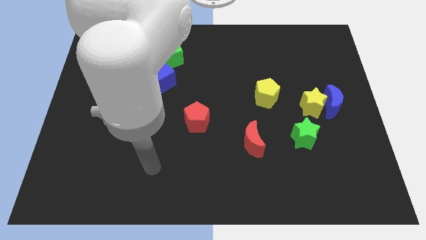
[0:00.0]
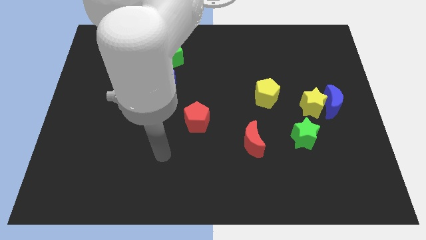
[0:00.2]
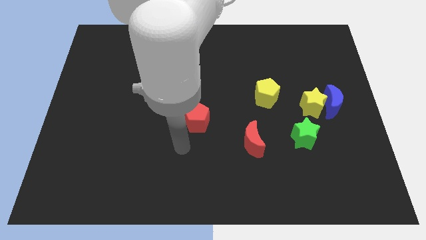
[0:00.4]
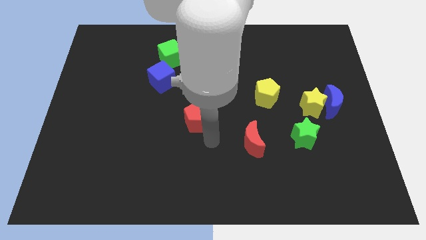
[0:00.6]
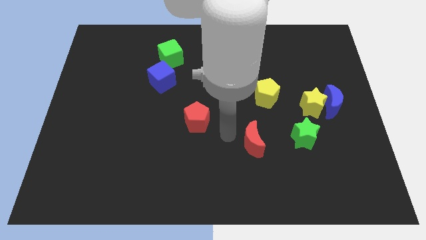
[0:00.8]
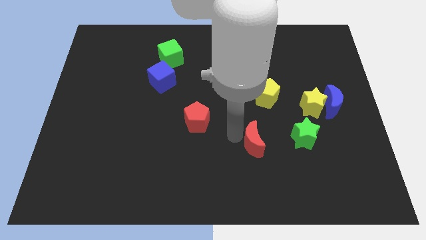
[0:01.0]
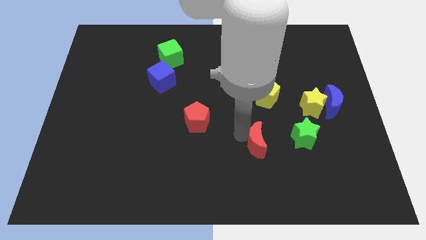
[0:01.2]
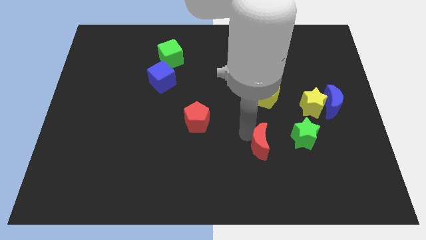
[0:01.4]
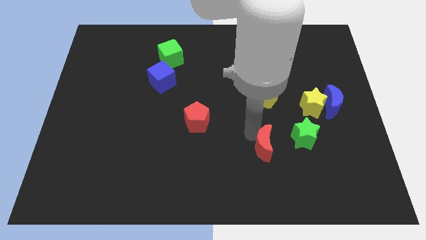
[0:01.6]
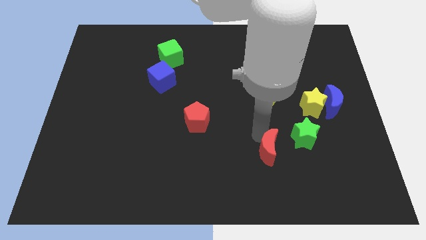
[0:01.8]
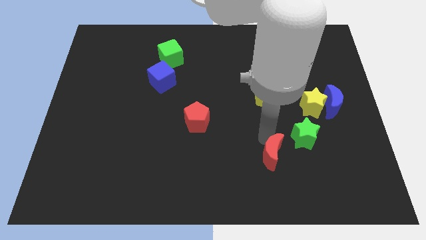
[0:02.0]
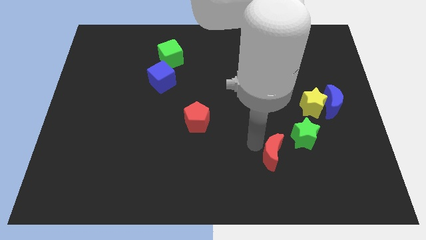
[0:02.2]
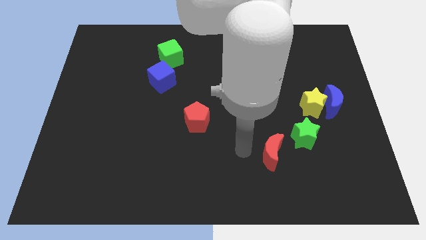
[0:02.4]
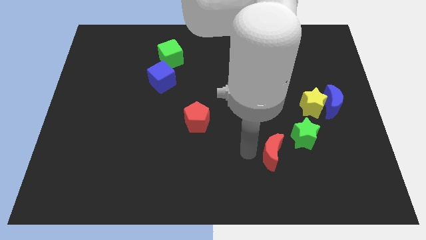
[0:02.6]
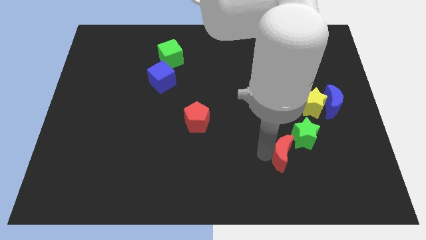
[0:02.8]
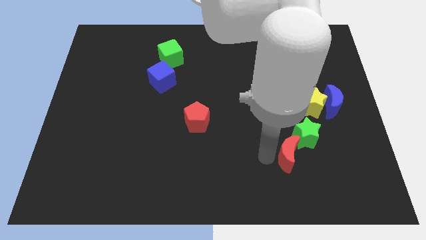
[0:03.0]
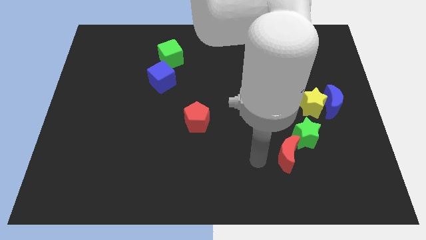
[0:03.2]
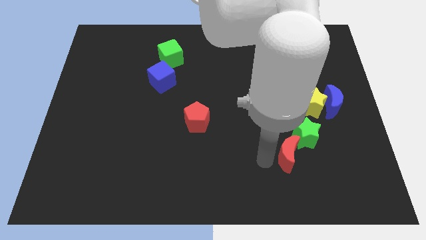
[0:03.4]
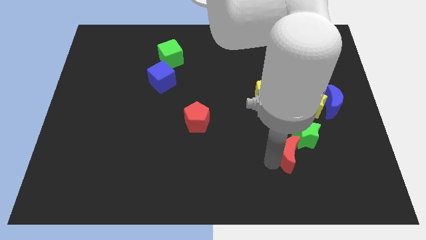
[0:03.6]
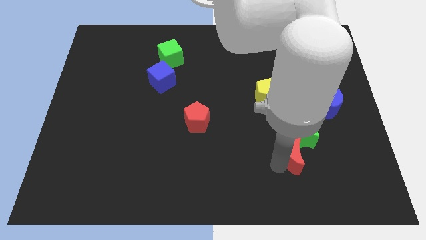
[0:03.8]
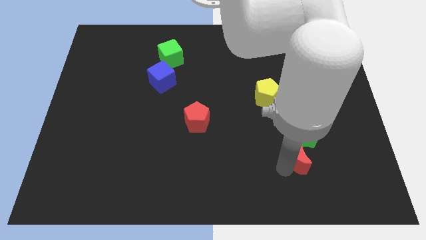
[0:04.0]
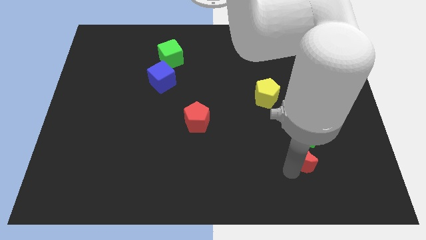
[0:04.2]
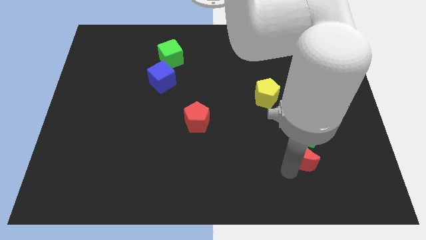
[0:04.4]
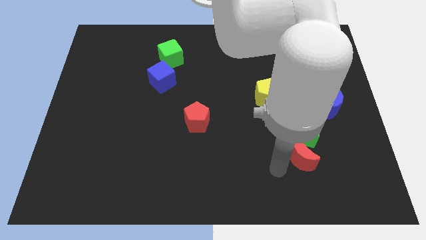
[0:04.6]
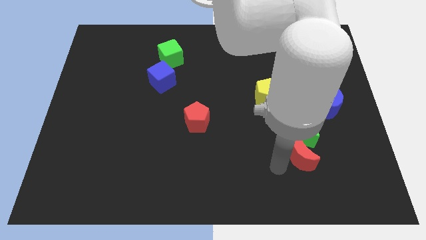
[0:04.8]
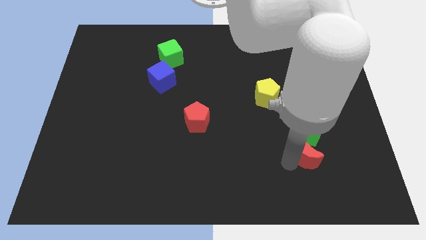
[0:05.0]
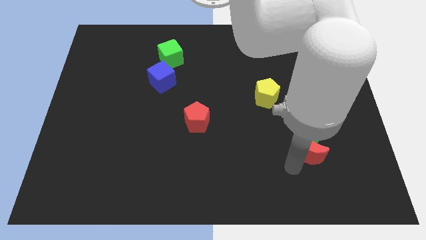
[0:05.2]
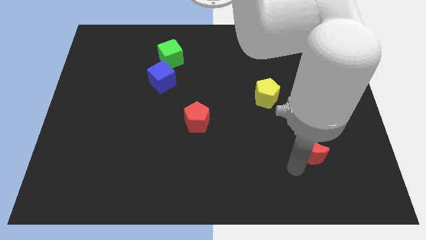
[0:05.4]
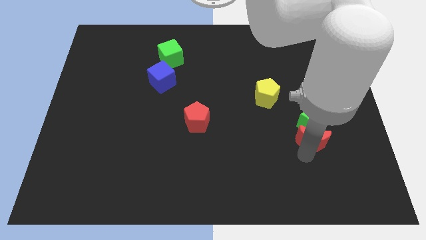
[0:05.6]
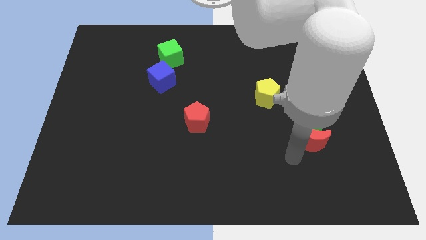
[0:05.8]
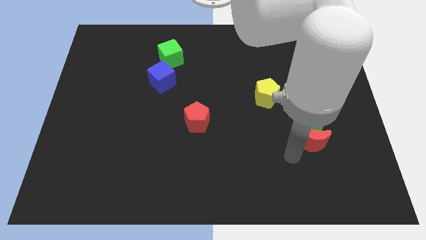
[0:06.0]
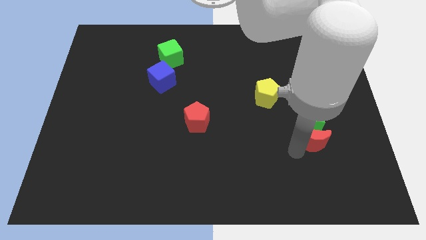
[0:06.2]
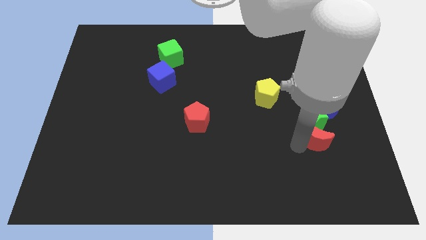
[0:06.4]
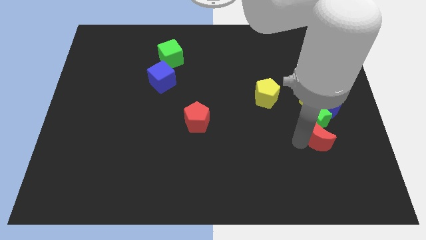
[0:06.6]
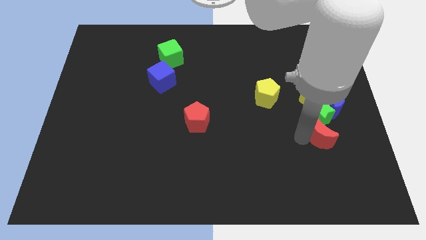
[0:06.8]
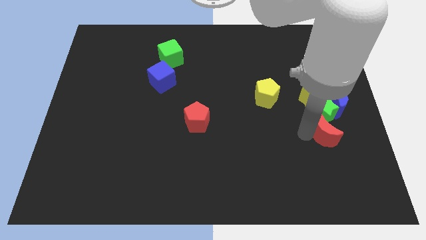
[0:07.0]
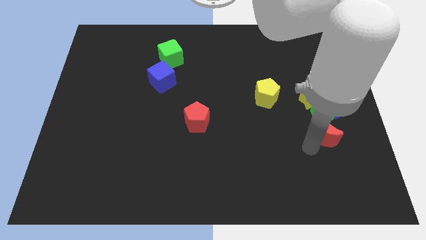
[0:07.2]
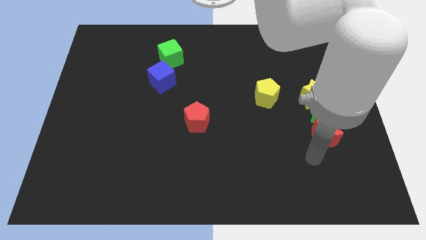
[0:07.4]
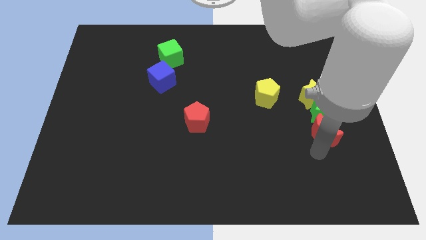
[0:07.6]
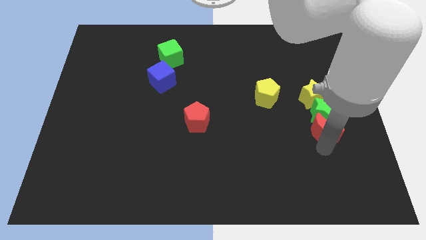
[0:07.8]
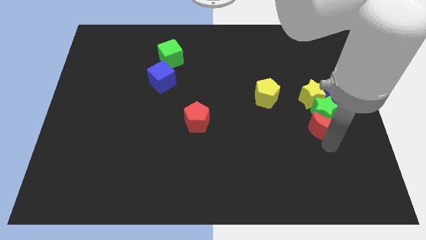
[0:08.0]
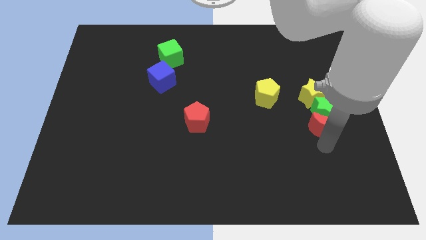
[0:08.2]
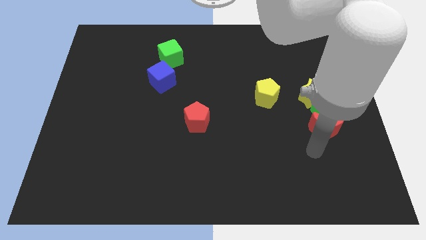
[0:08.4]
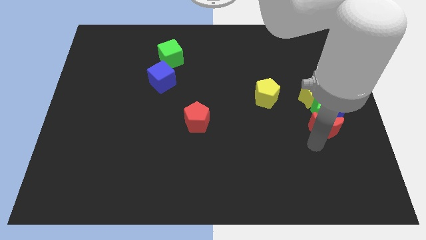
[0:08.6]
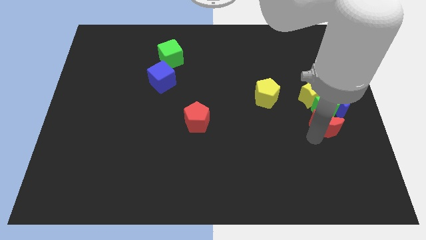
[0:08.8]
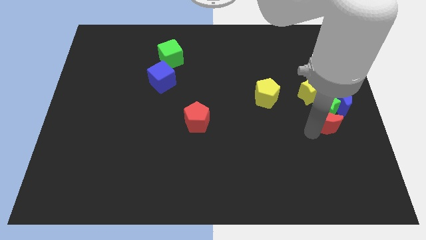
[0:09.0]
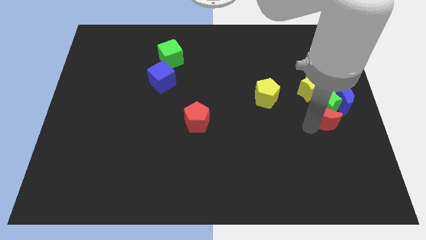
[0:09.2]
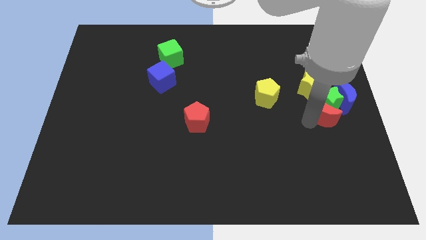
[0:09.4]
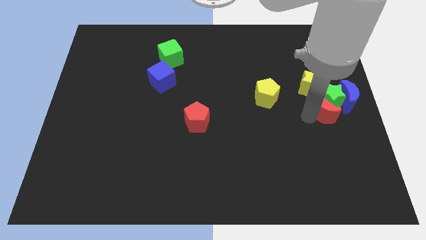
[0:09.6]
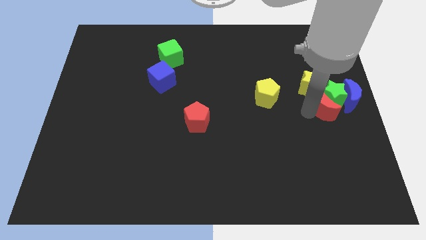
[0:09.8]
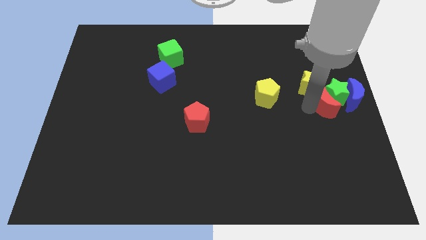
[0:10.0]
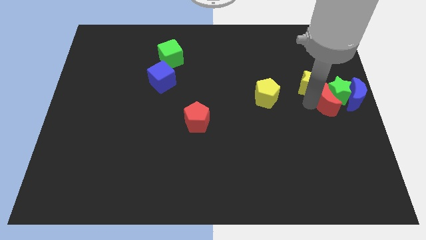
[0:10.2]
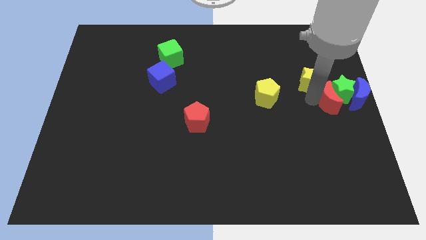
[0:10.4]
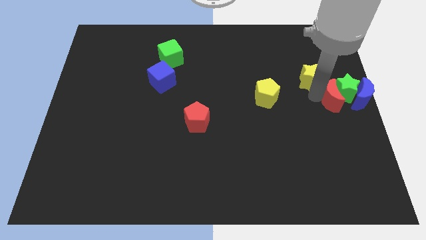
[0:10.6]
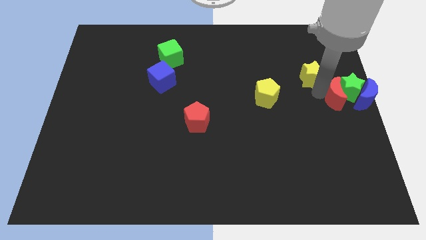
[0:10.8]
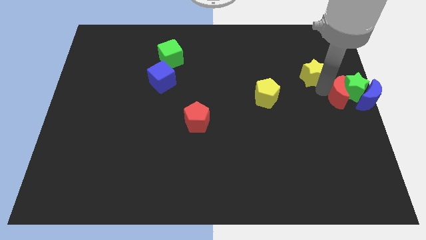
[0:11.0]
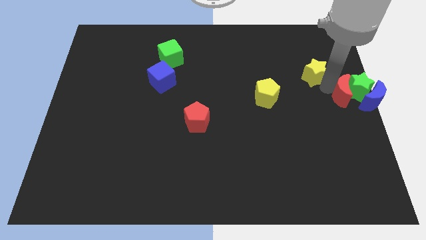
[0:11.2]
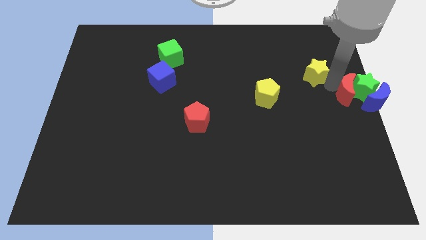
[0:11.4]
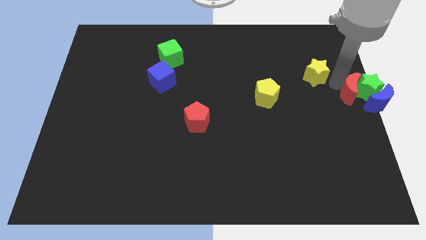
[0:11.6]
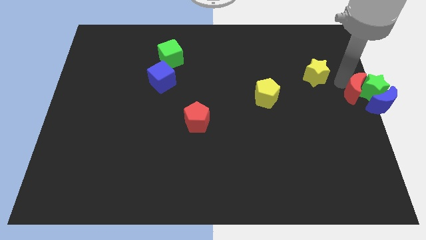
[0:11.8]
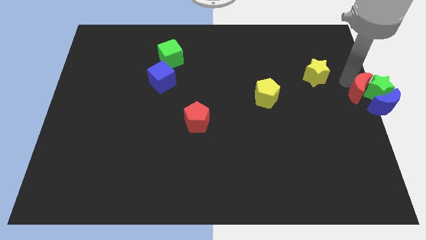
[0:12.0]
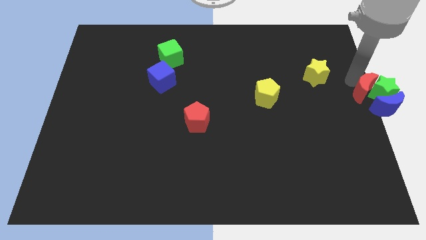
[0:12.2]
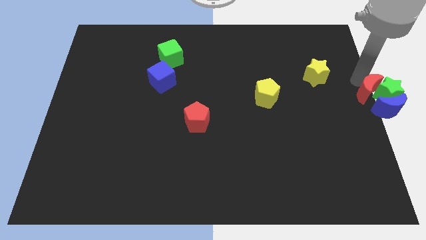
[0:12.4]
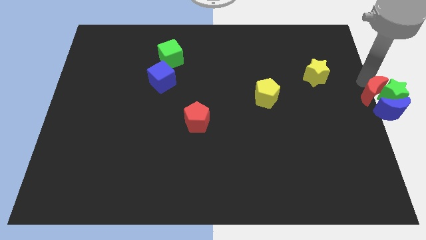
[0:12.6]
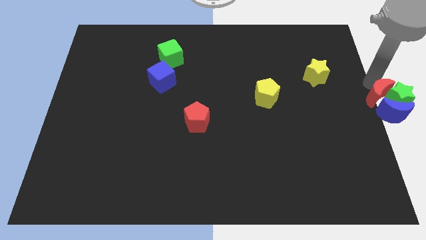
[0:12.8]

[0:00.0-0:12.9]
put the red moon next to the blue moon

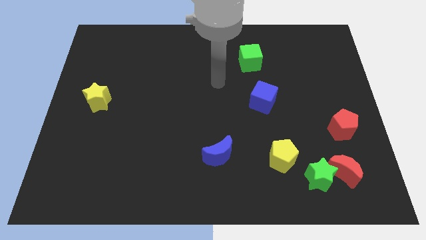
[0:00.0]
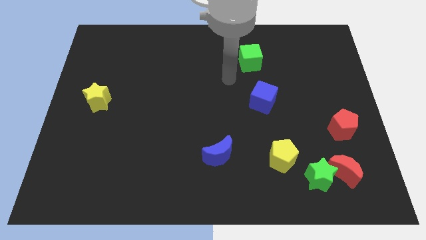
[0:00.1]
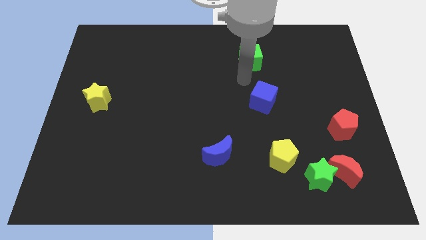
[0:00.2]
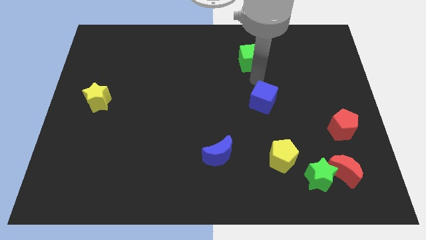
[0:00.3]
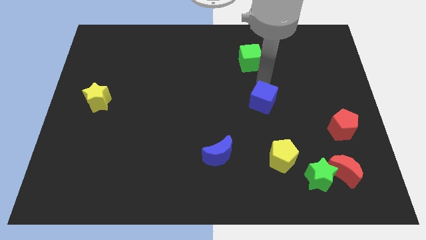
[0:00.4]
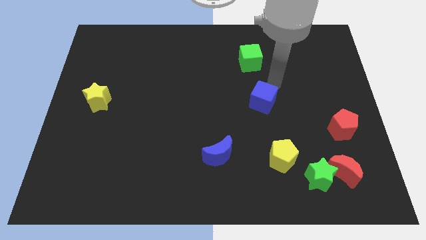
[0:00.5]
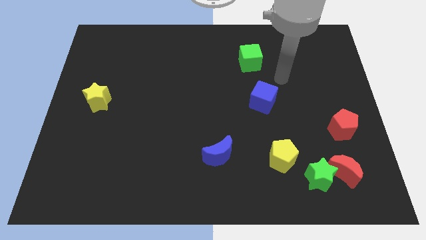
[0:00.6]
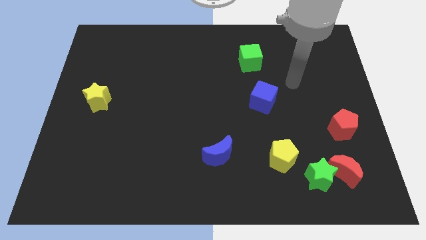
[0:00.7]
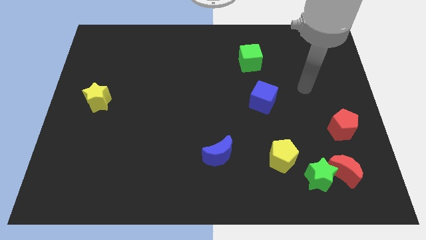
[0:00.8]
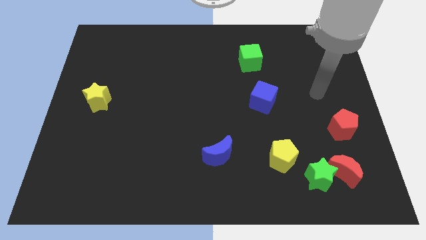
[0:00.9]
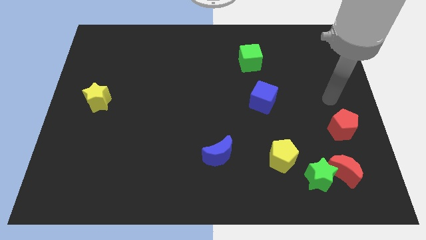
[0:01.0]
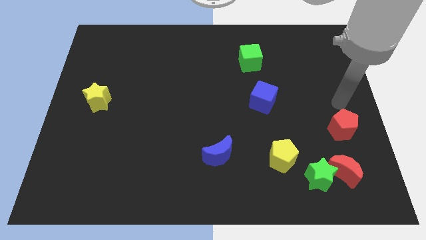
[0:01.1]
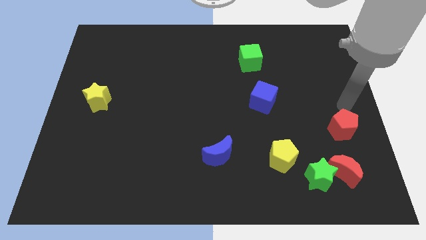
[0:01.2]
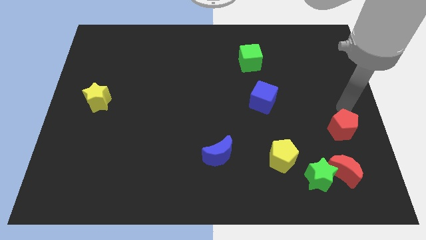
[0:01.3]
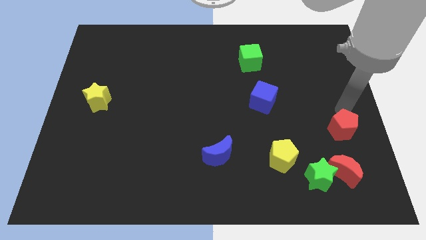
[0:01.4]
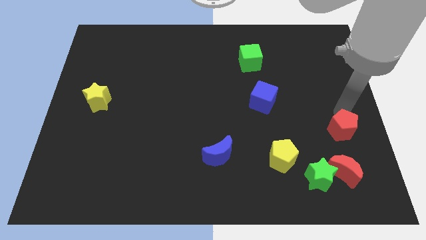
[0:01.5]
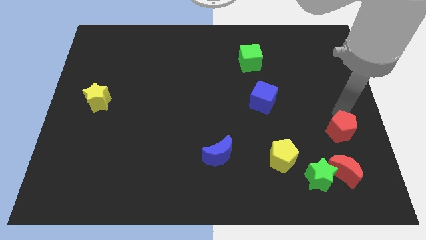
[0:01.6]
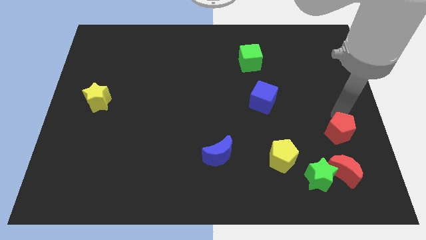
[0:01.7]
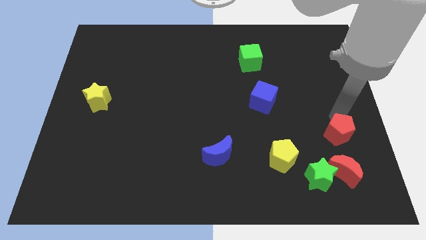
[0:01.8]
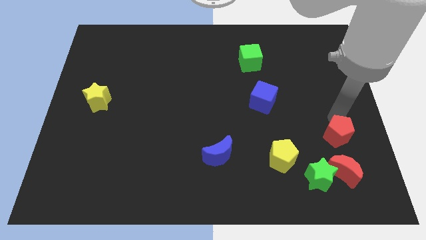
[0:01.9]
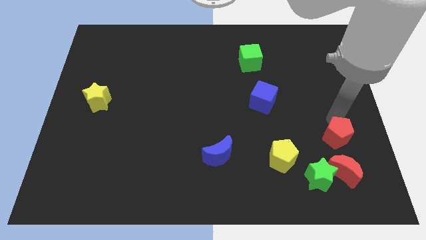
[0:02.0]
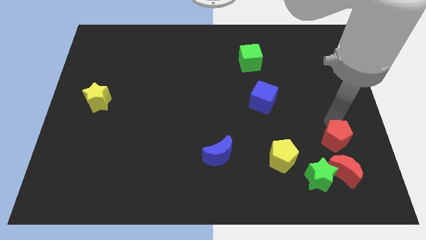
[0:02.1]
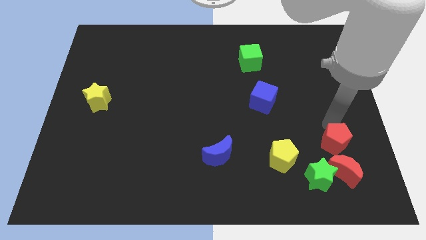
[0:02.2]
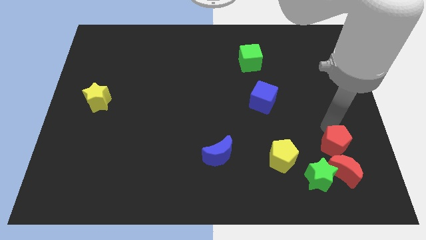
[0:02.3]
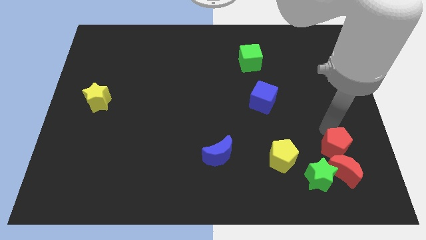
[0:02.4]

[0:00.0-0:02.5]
push the red pentagon next to the red moon
